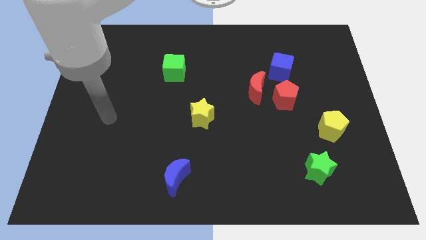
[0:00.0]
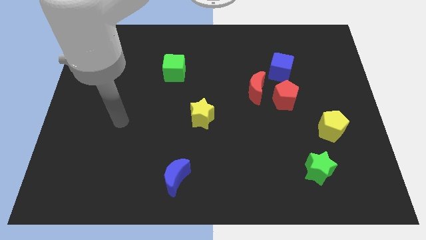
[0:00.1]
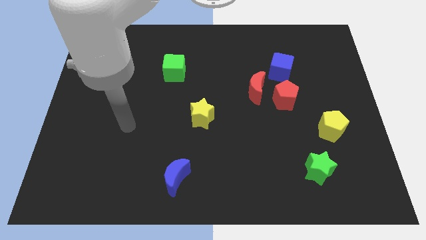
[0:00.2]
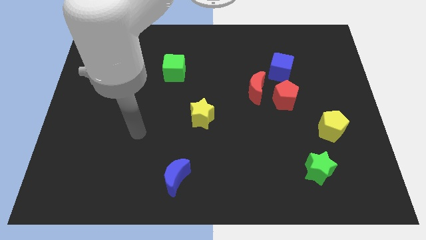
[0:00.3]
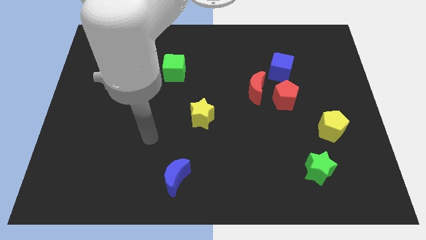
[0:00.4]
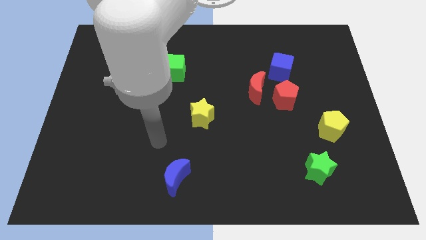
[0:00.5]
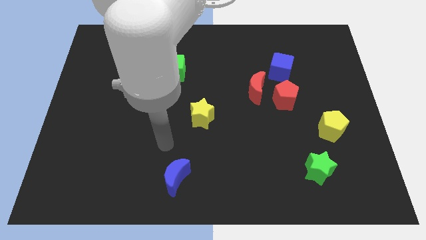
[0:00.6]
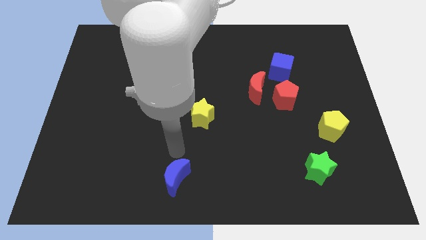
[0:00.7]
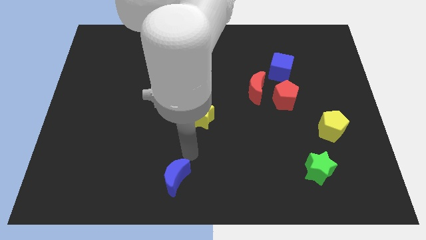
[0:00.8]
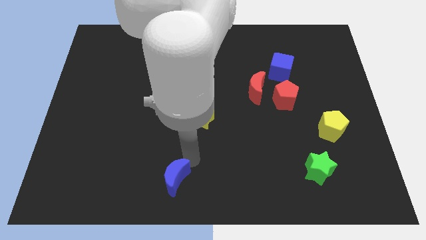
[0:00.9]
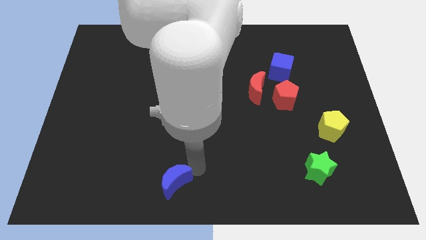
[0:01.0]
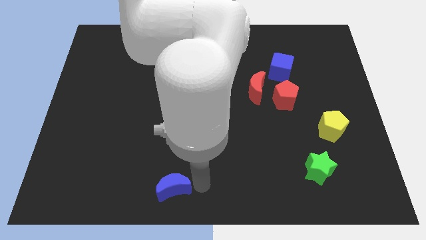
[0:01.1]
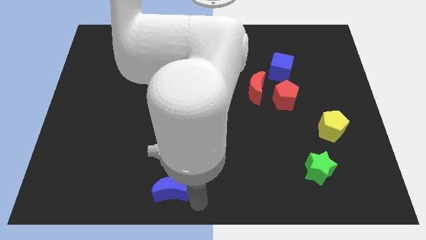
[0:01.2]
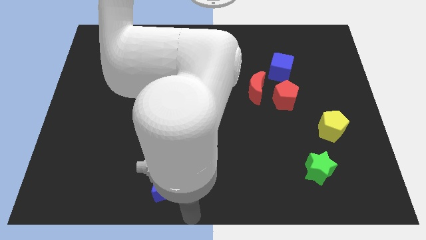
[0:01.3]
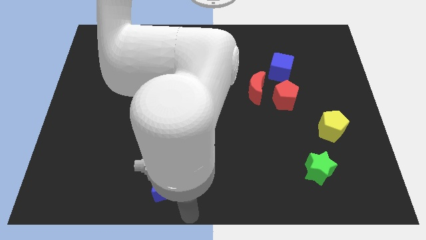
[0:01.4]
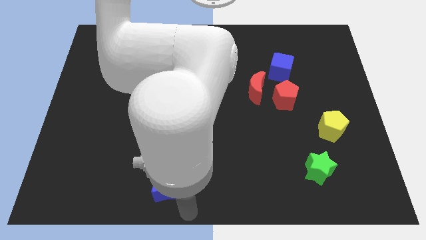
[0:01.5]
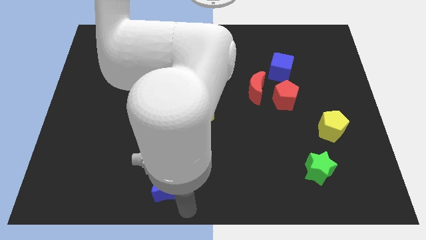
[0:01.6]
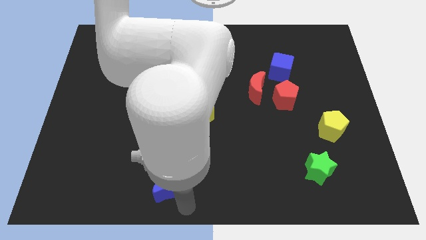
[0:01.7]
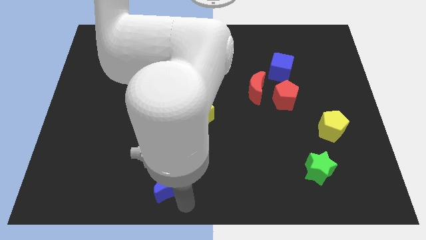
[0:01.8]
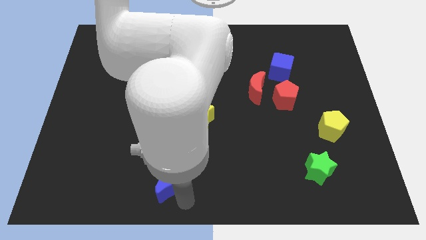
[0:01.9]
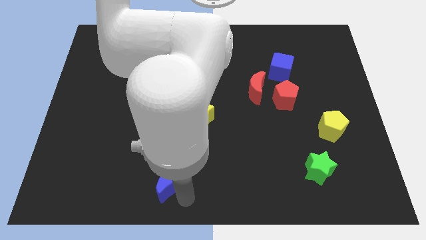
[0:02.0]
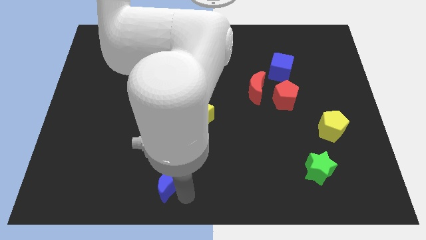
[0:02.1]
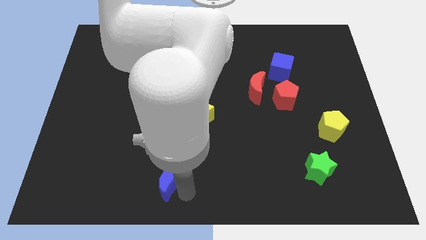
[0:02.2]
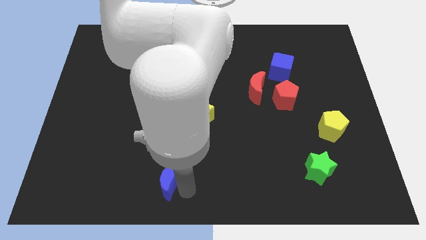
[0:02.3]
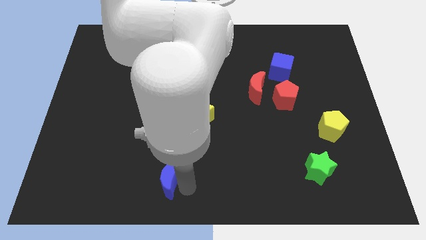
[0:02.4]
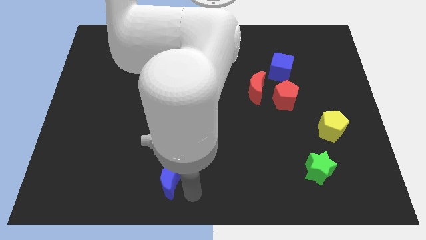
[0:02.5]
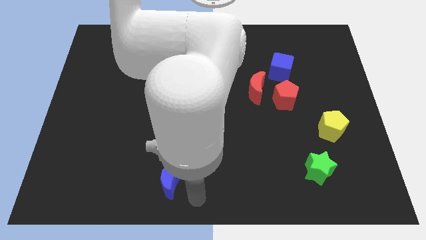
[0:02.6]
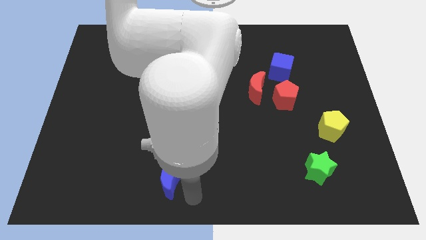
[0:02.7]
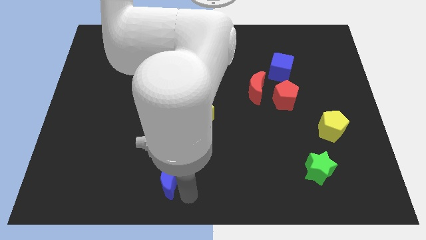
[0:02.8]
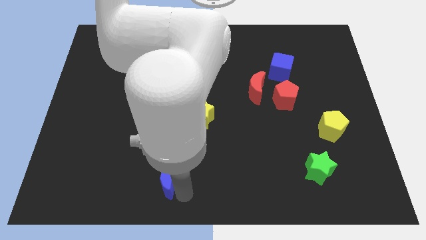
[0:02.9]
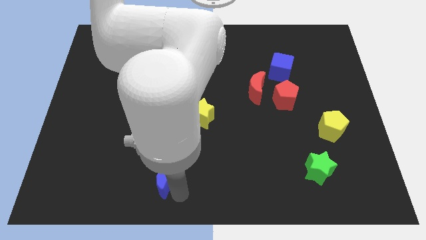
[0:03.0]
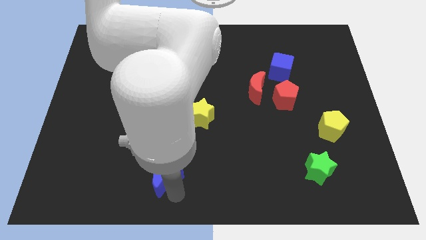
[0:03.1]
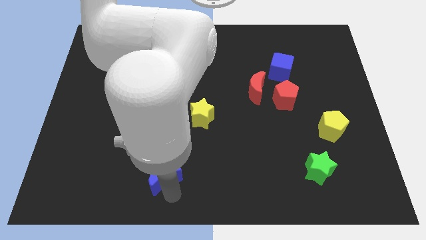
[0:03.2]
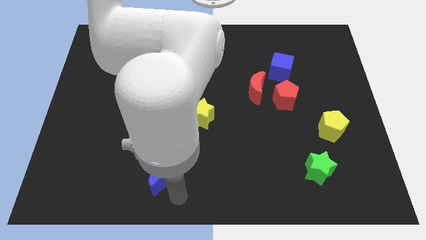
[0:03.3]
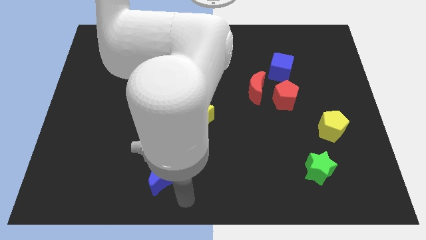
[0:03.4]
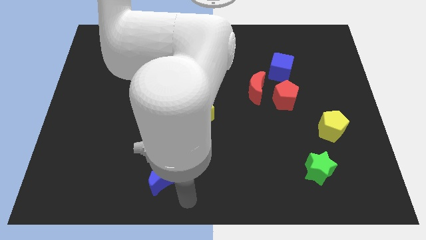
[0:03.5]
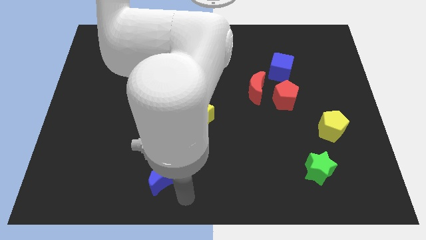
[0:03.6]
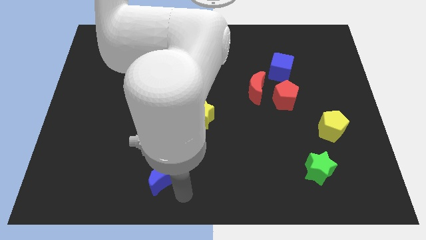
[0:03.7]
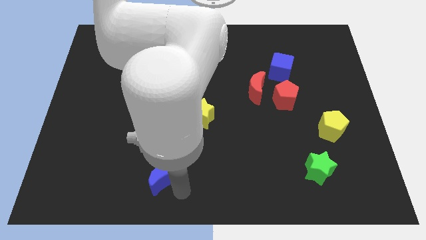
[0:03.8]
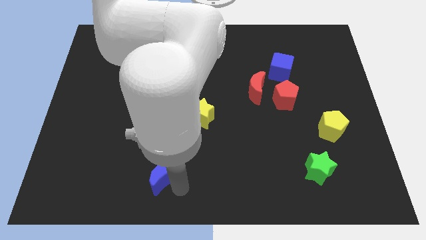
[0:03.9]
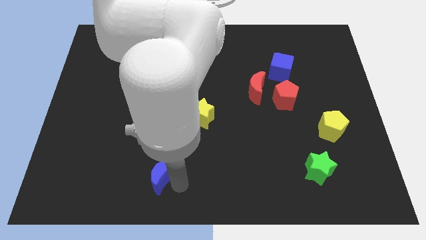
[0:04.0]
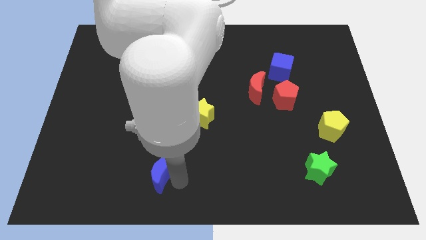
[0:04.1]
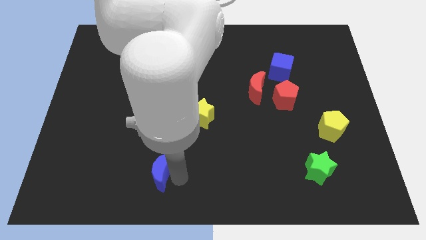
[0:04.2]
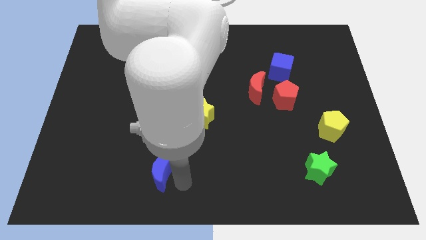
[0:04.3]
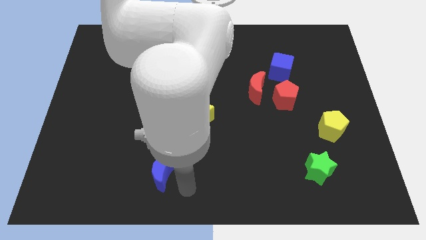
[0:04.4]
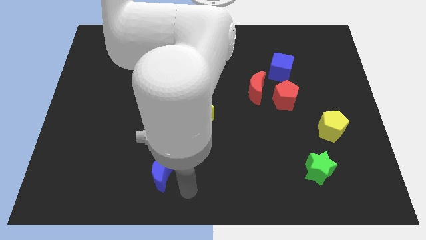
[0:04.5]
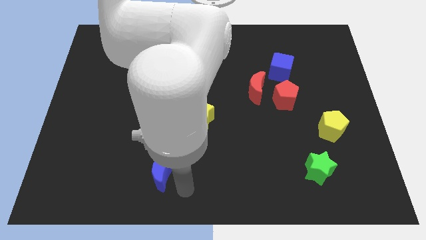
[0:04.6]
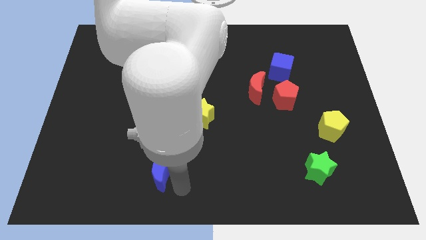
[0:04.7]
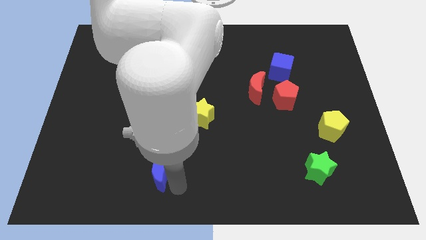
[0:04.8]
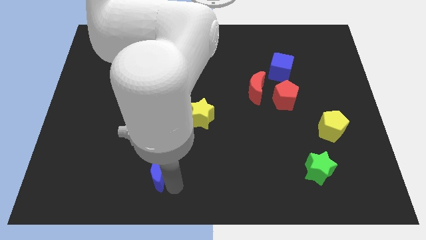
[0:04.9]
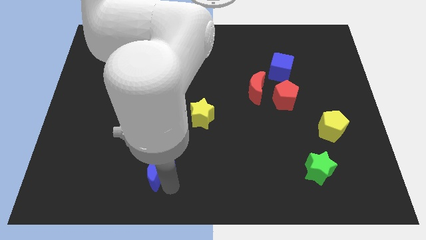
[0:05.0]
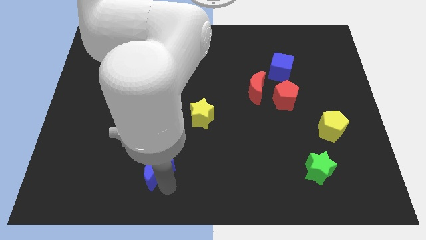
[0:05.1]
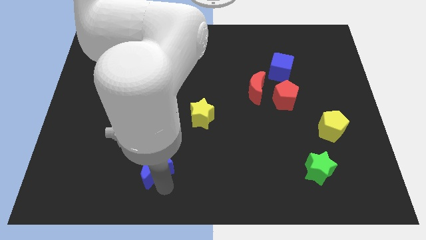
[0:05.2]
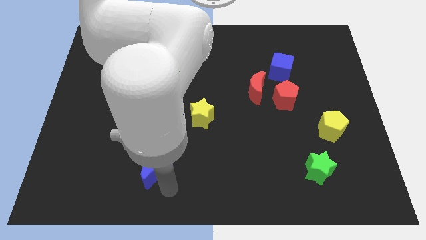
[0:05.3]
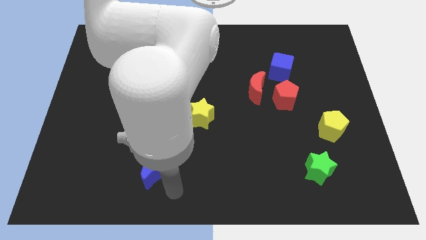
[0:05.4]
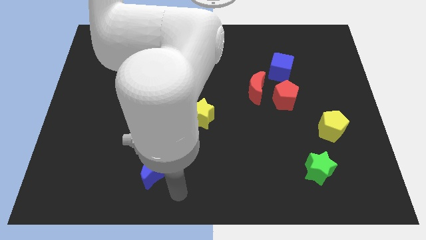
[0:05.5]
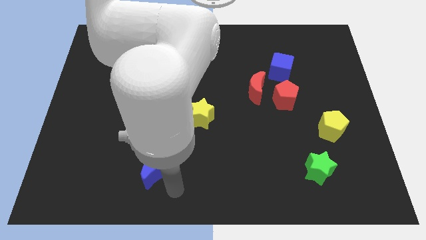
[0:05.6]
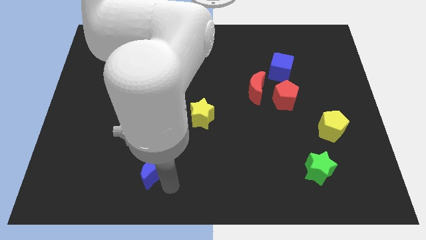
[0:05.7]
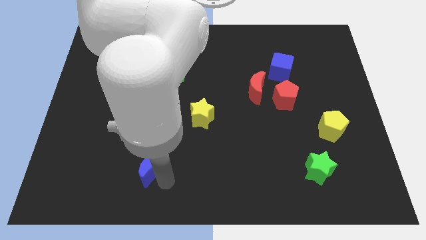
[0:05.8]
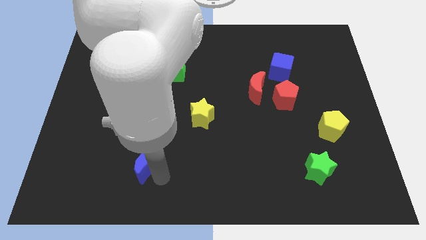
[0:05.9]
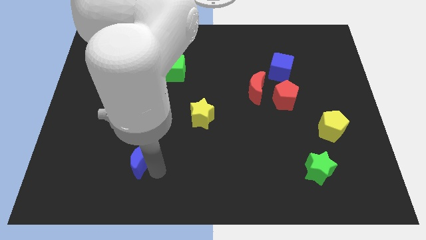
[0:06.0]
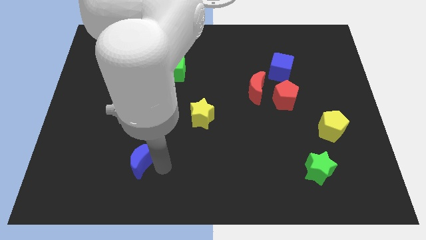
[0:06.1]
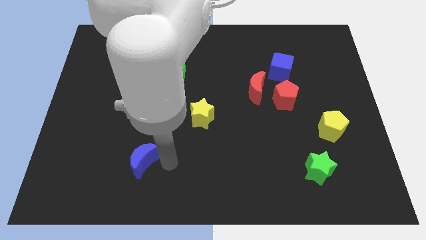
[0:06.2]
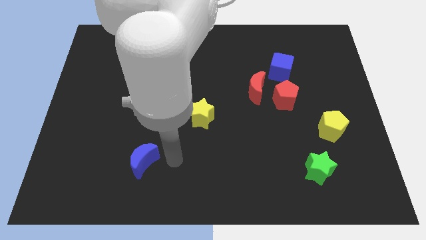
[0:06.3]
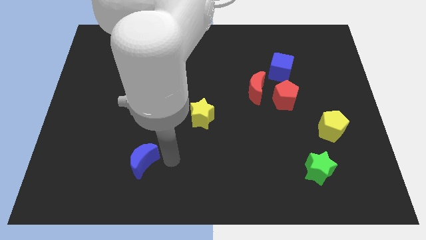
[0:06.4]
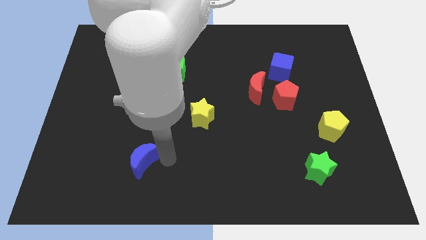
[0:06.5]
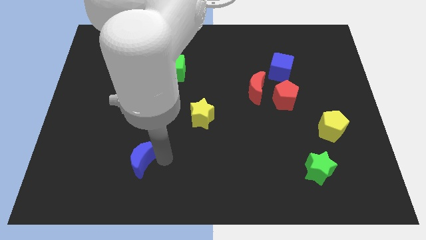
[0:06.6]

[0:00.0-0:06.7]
move the blue moon to the left slightly

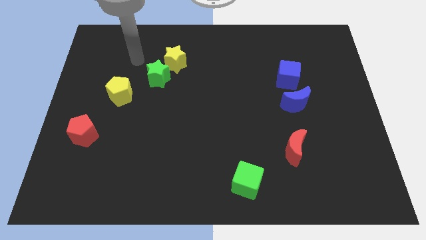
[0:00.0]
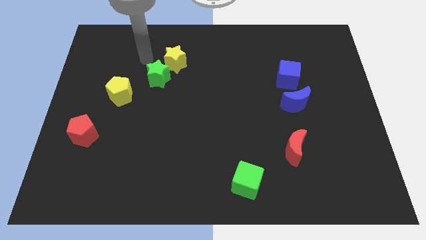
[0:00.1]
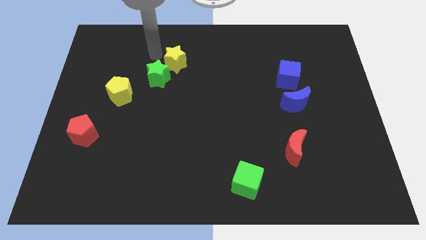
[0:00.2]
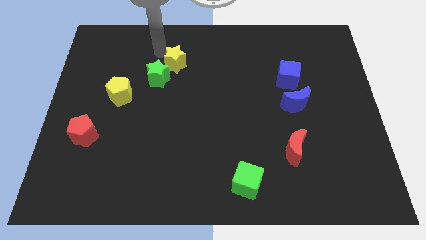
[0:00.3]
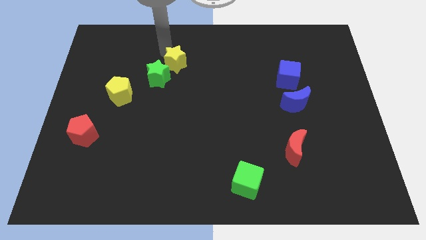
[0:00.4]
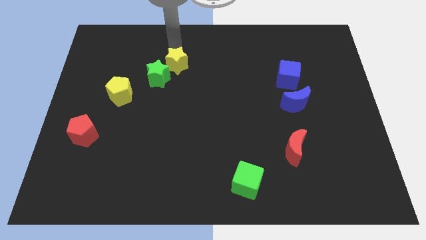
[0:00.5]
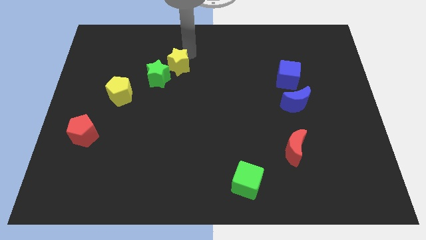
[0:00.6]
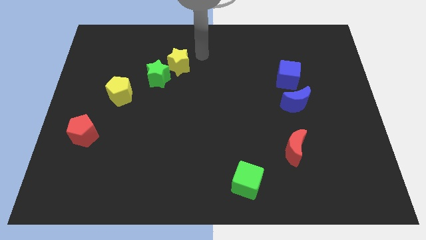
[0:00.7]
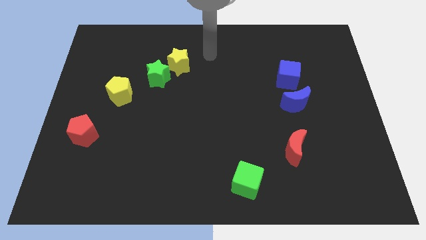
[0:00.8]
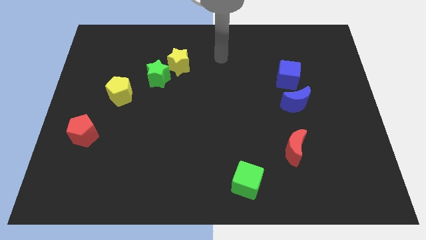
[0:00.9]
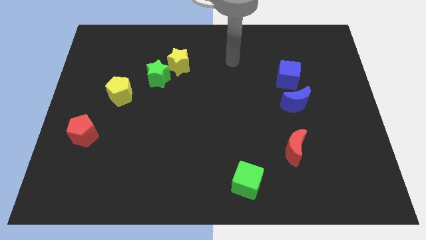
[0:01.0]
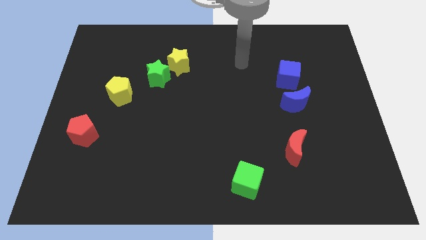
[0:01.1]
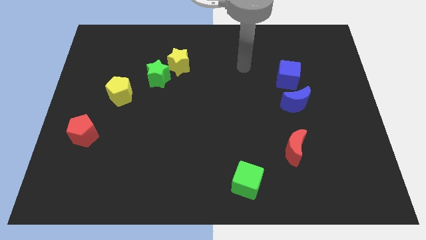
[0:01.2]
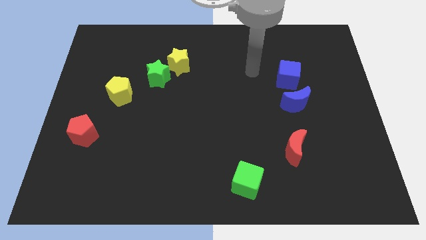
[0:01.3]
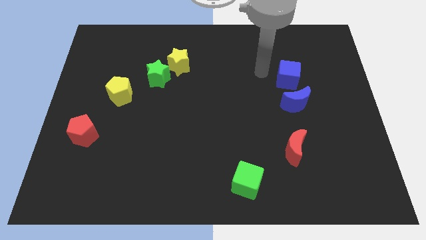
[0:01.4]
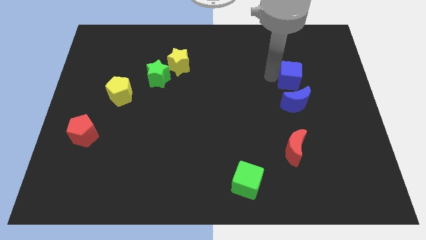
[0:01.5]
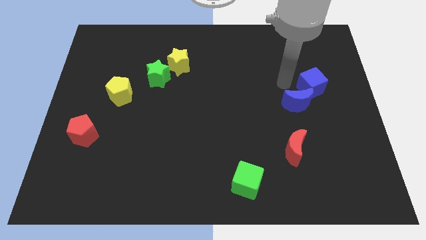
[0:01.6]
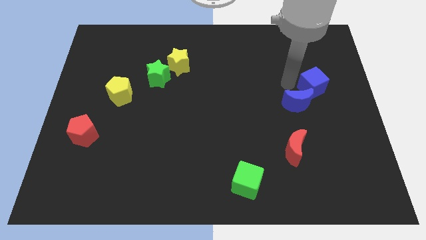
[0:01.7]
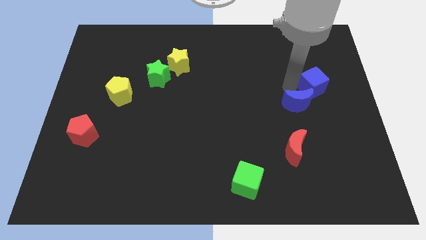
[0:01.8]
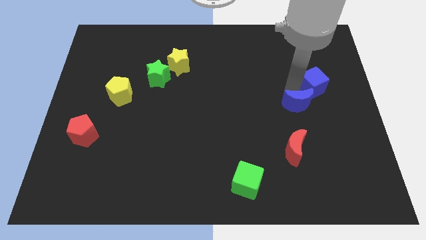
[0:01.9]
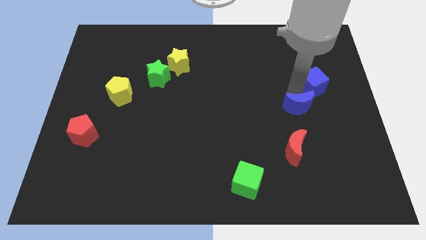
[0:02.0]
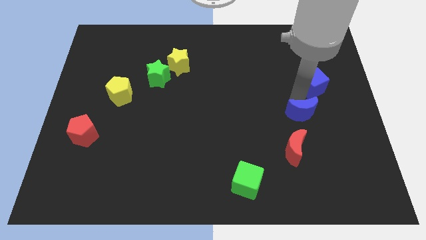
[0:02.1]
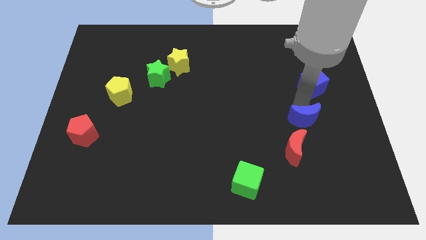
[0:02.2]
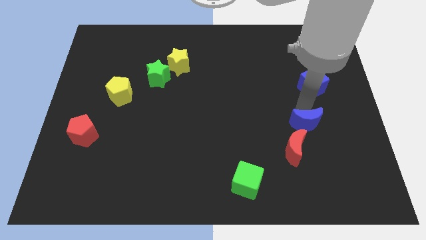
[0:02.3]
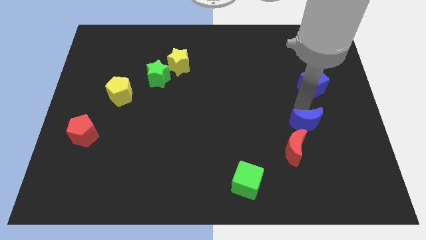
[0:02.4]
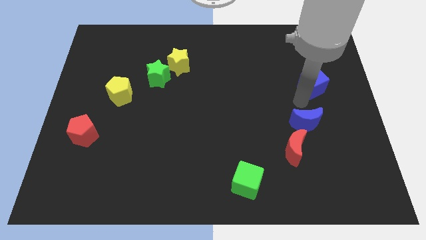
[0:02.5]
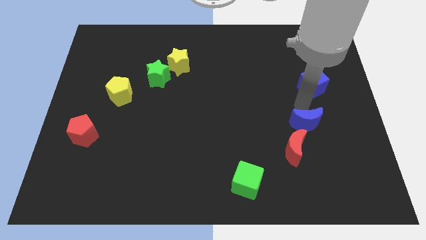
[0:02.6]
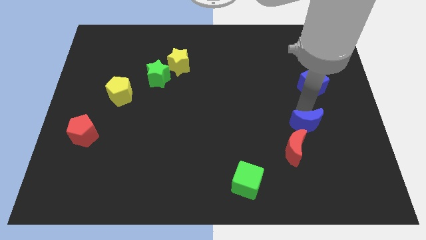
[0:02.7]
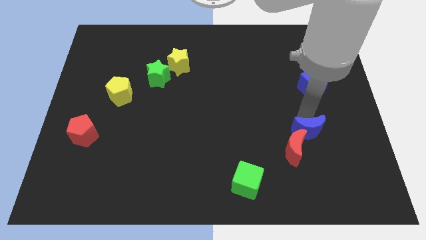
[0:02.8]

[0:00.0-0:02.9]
slide the blue moon downwards a bit
